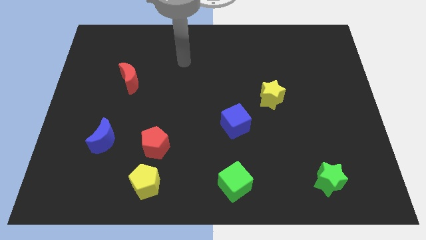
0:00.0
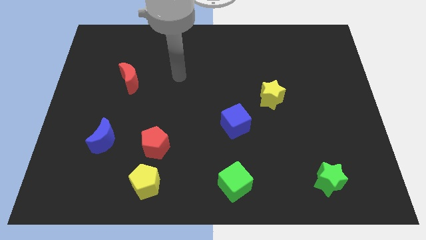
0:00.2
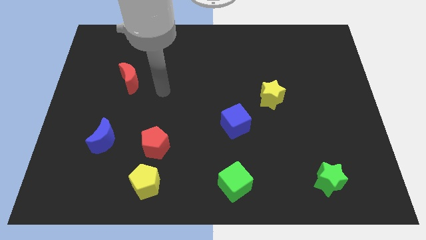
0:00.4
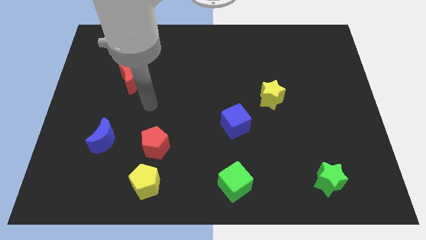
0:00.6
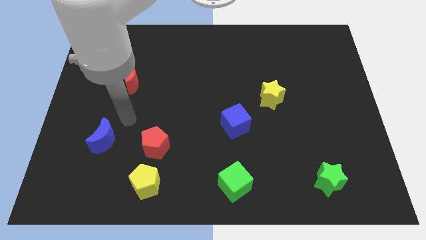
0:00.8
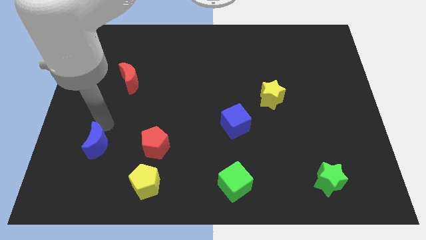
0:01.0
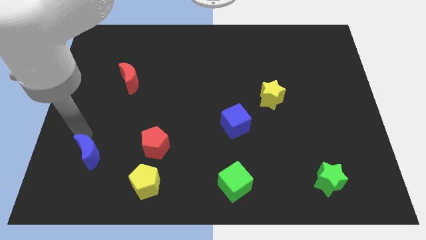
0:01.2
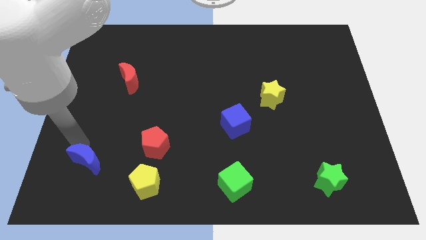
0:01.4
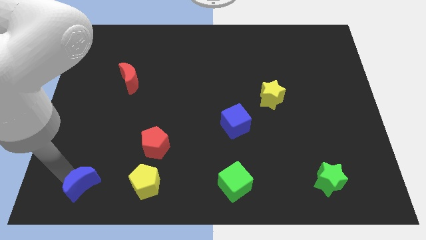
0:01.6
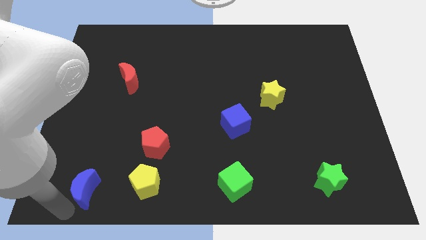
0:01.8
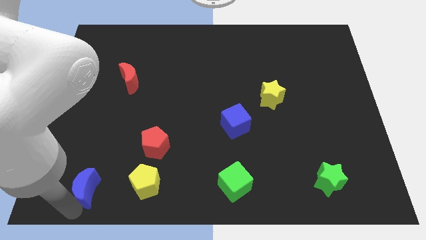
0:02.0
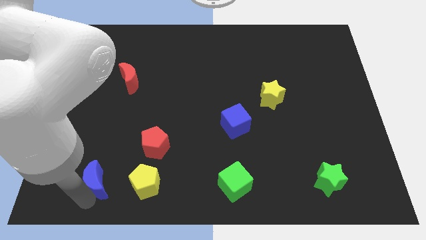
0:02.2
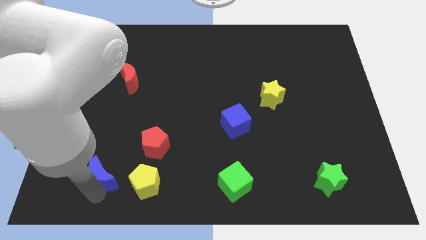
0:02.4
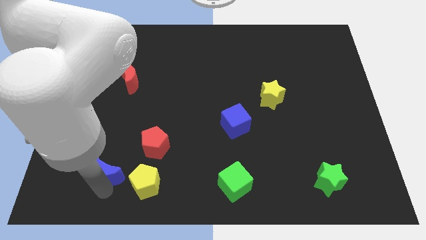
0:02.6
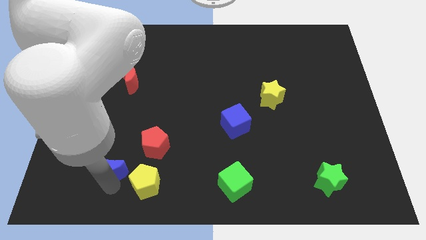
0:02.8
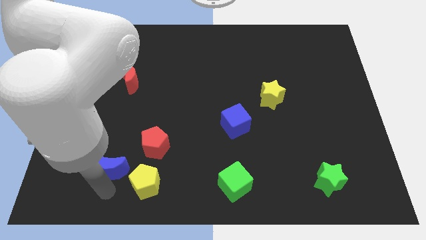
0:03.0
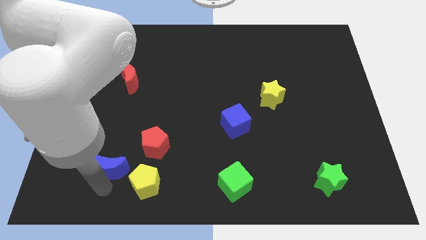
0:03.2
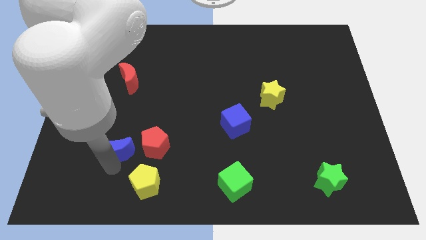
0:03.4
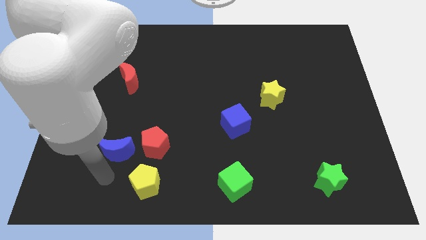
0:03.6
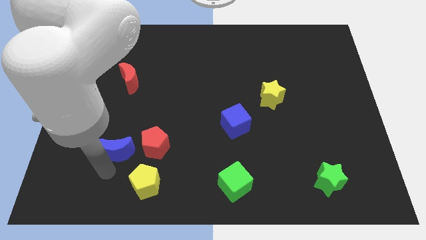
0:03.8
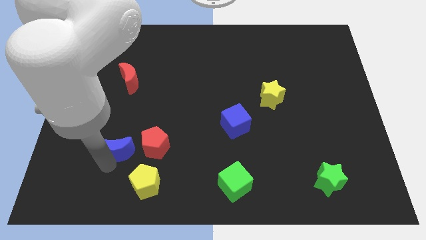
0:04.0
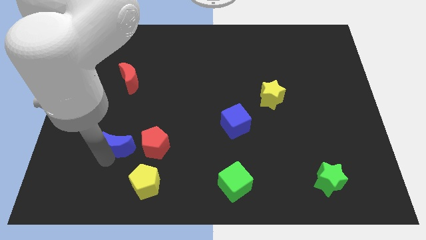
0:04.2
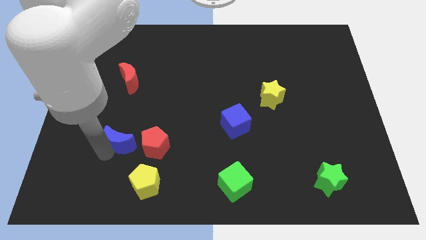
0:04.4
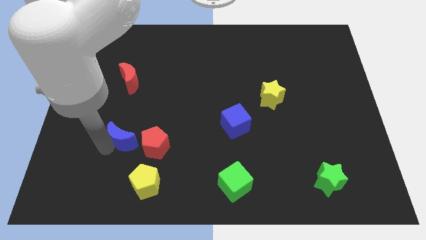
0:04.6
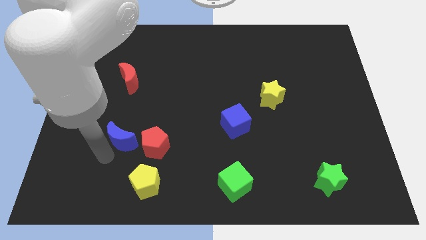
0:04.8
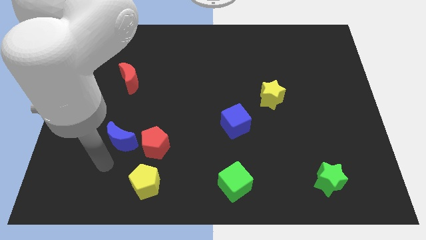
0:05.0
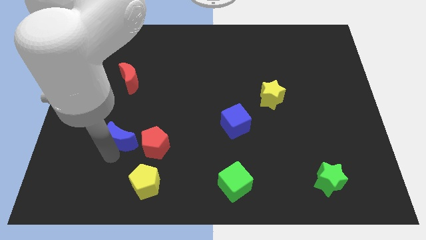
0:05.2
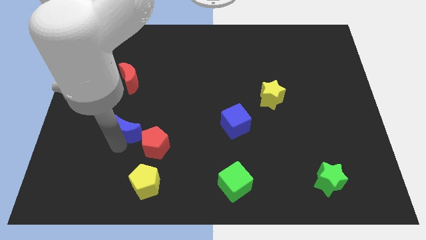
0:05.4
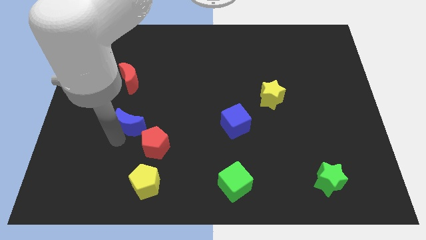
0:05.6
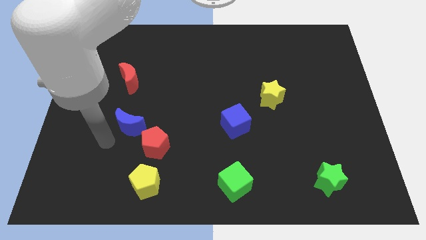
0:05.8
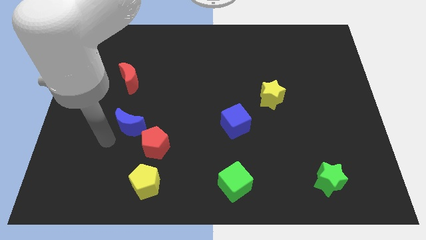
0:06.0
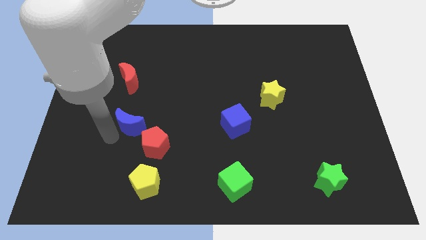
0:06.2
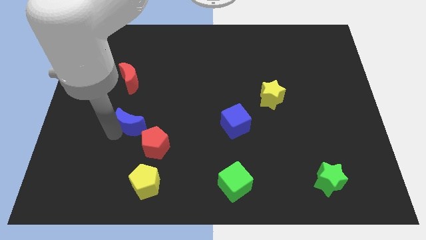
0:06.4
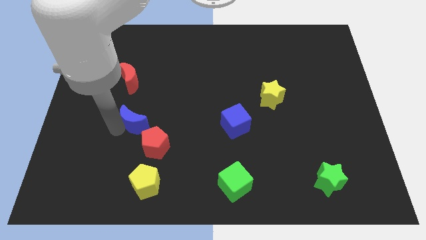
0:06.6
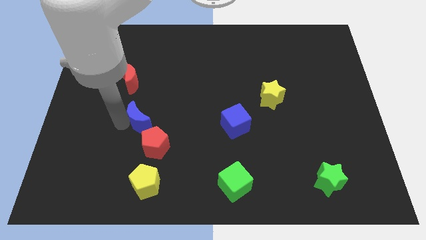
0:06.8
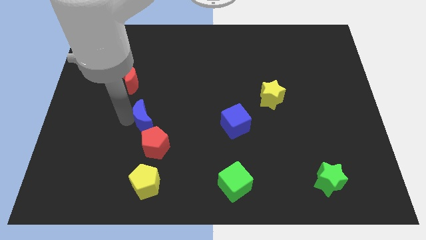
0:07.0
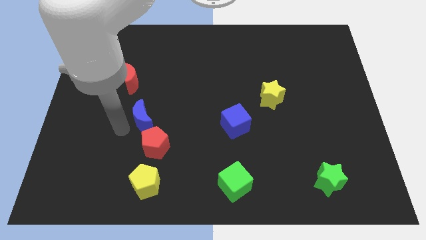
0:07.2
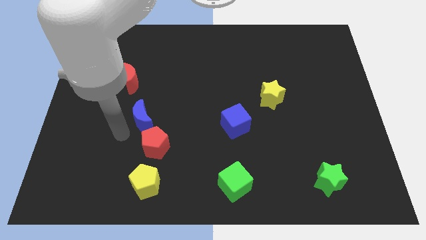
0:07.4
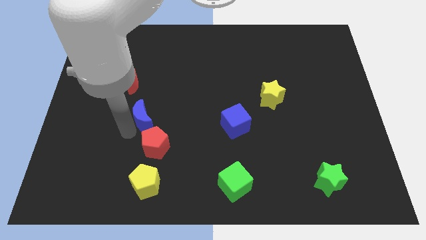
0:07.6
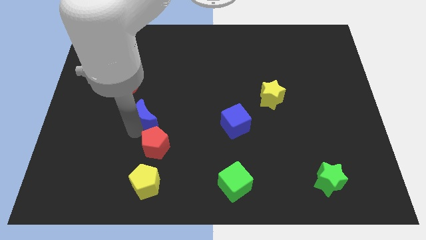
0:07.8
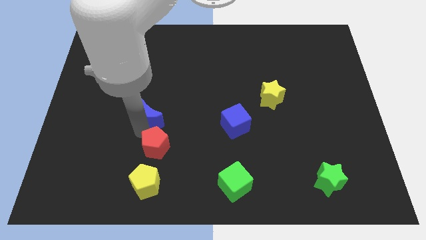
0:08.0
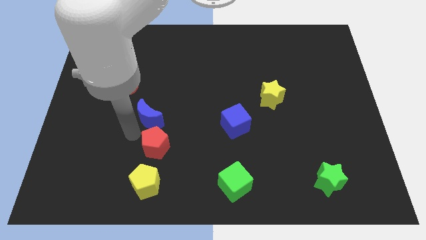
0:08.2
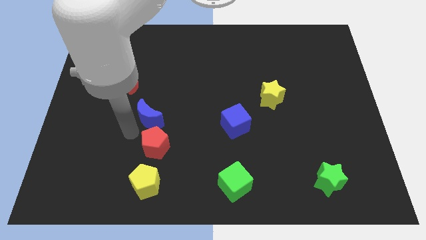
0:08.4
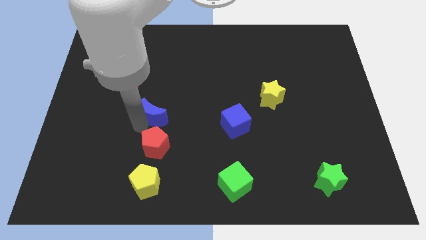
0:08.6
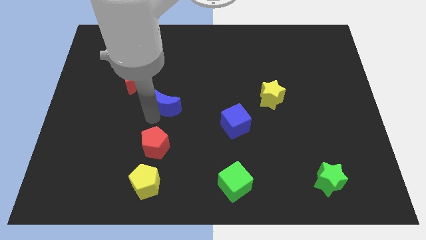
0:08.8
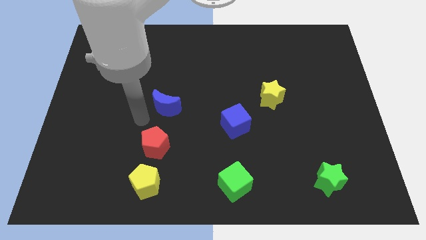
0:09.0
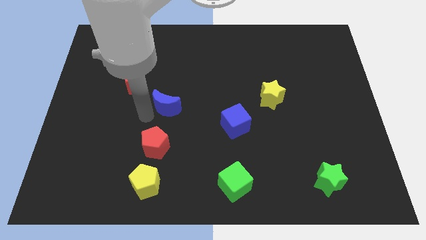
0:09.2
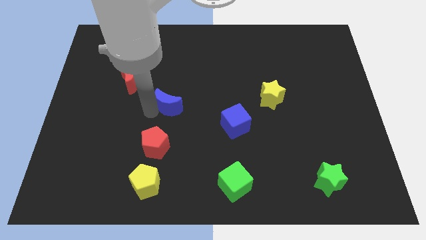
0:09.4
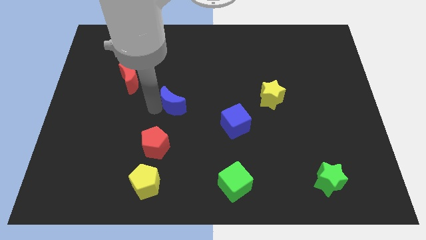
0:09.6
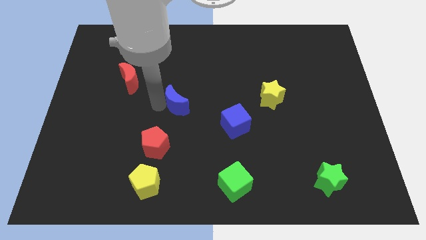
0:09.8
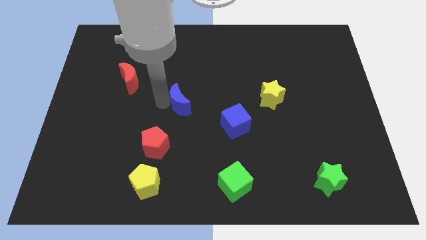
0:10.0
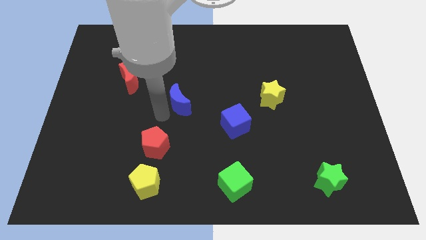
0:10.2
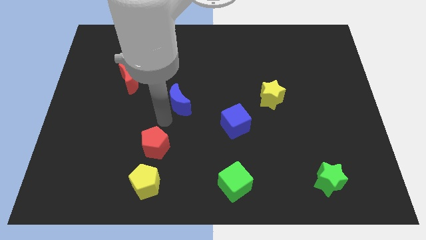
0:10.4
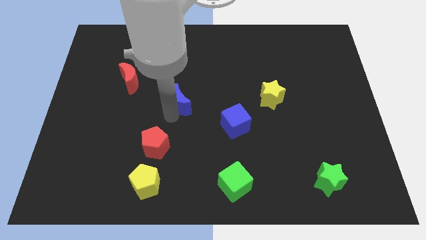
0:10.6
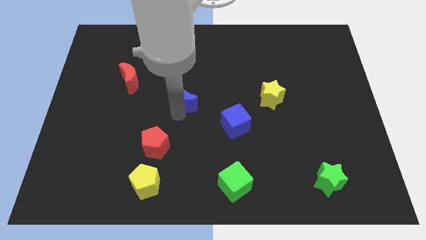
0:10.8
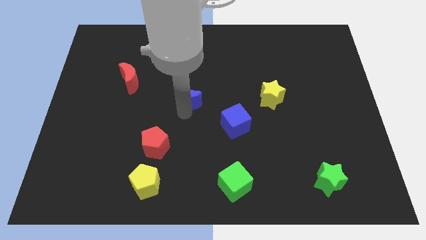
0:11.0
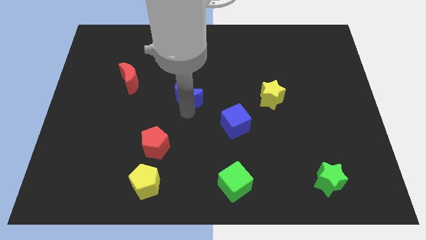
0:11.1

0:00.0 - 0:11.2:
push the blue moon diagonally up and right

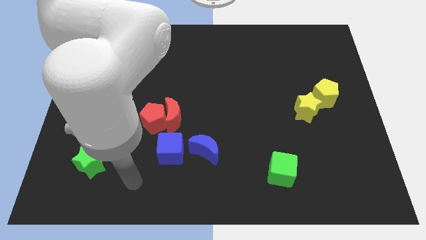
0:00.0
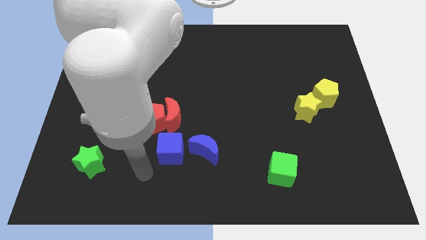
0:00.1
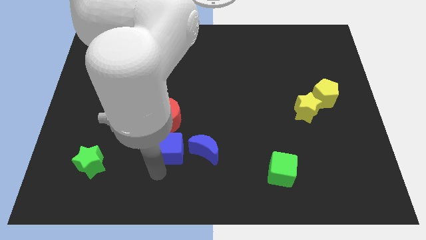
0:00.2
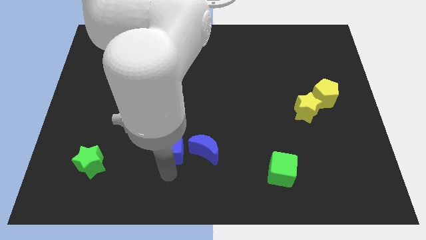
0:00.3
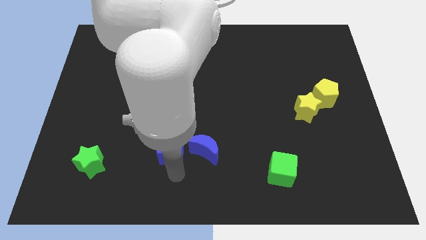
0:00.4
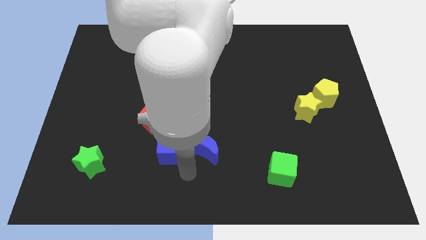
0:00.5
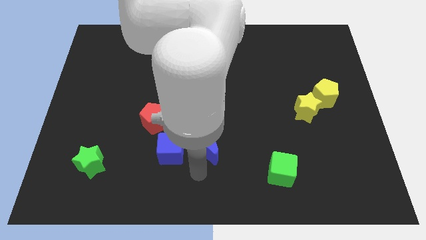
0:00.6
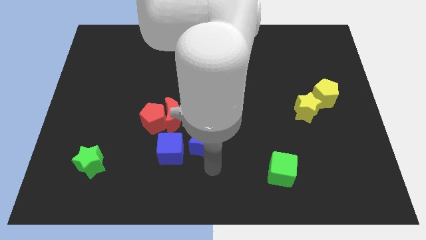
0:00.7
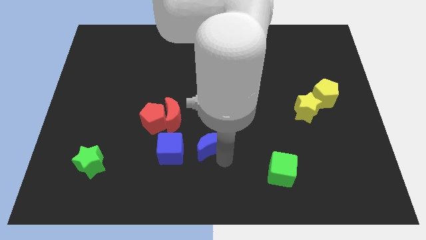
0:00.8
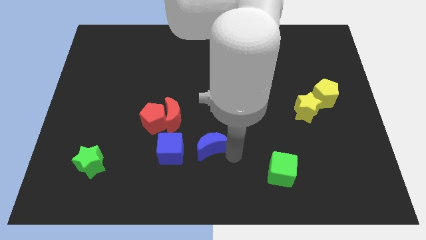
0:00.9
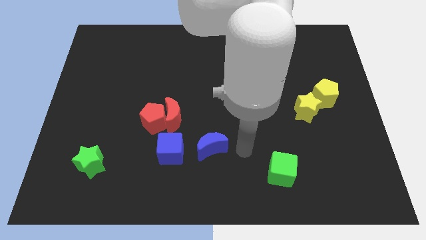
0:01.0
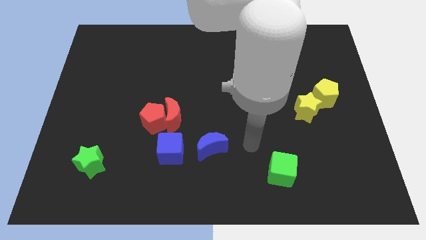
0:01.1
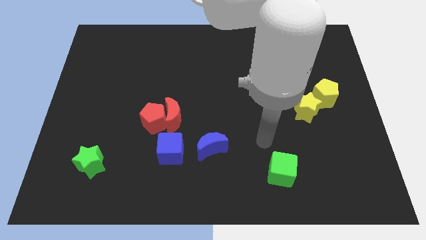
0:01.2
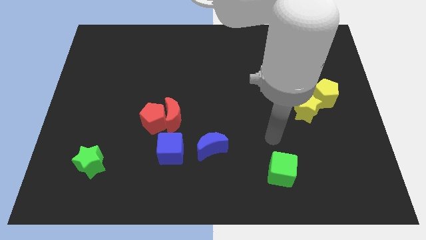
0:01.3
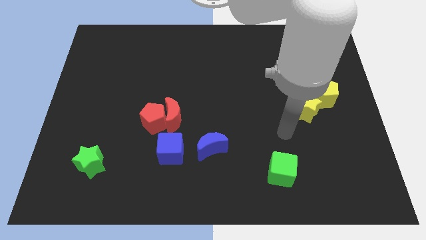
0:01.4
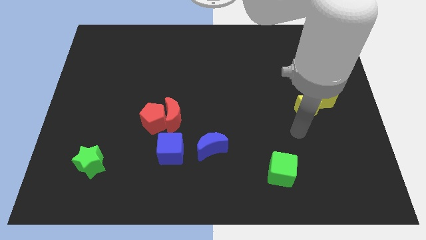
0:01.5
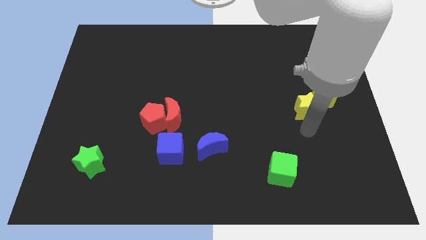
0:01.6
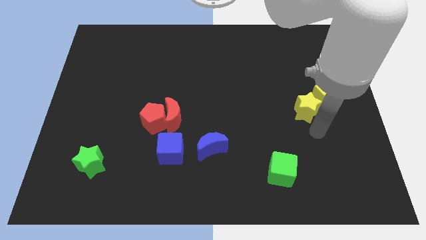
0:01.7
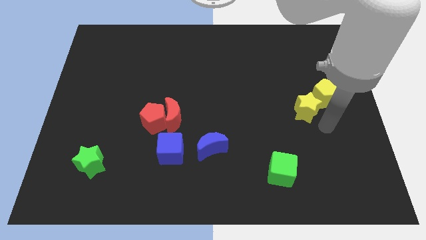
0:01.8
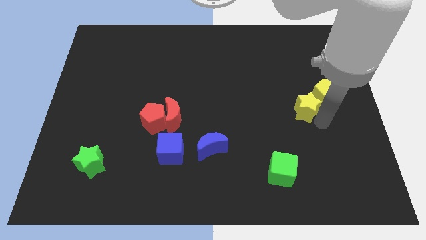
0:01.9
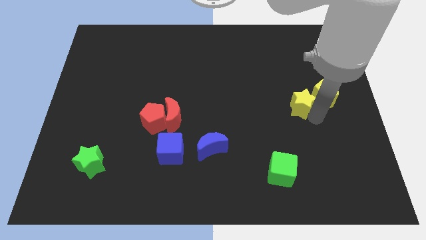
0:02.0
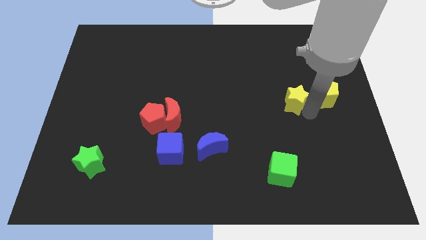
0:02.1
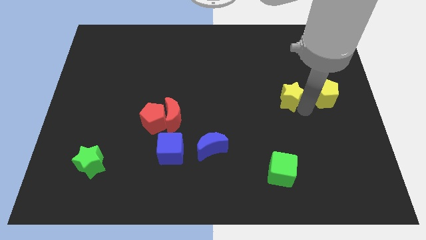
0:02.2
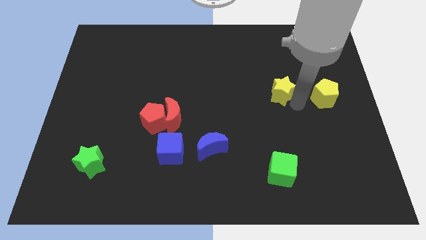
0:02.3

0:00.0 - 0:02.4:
push the yellow star a bit up and left
